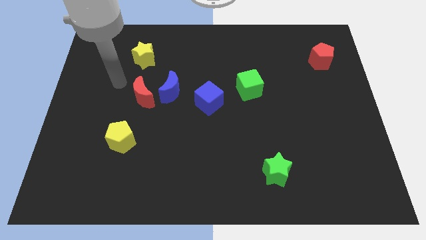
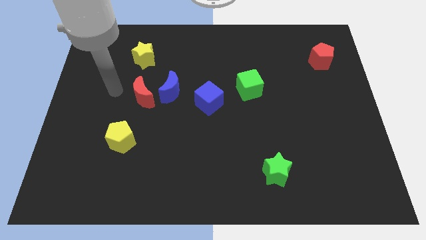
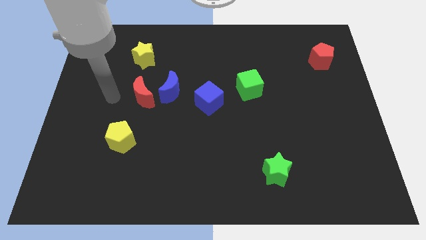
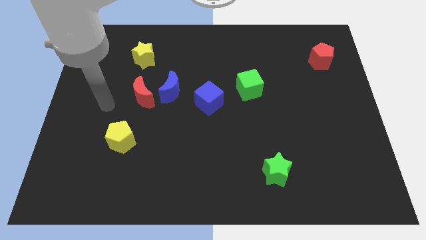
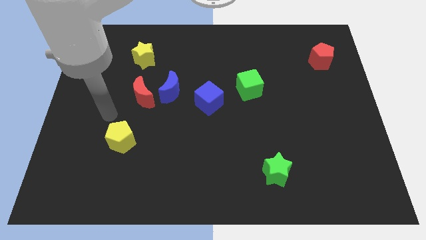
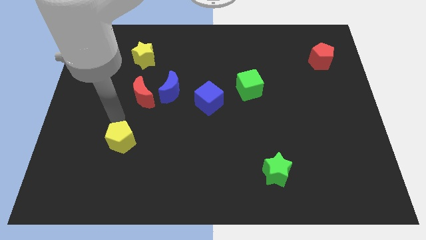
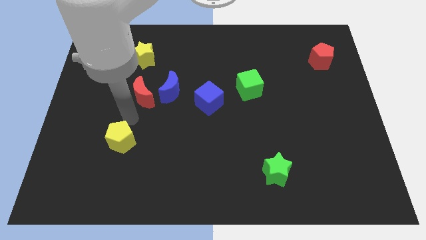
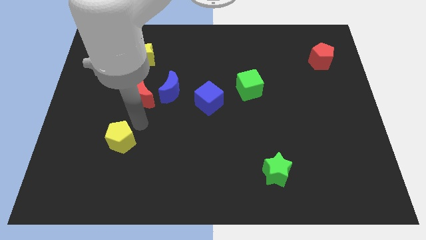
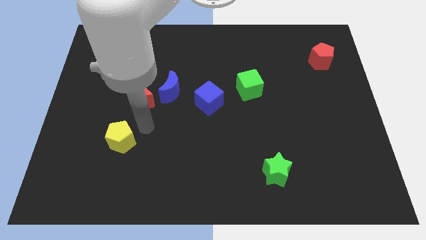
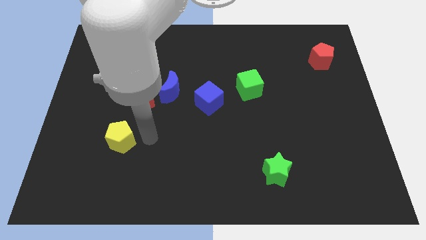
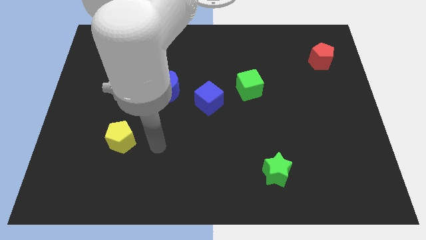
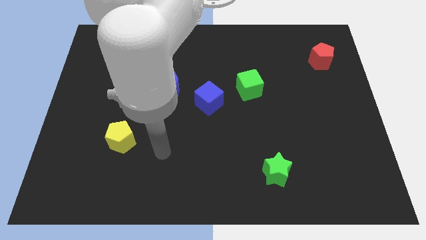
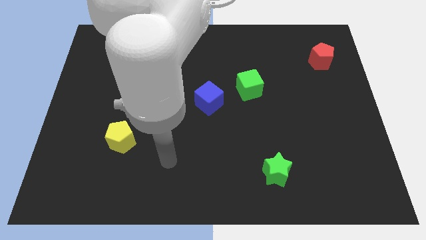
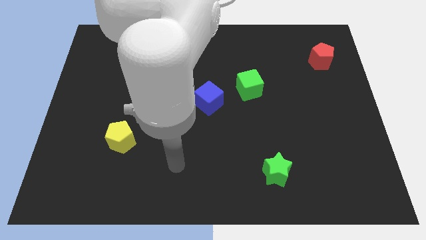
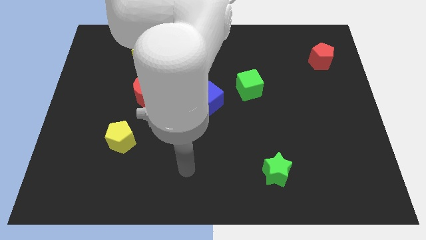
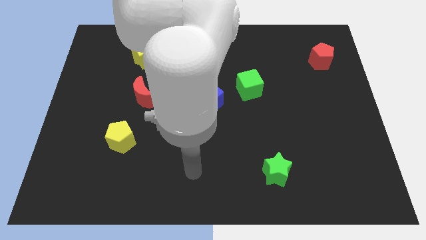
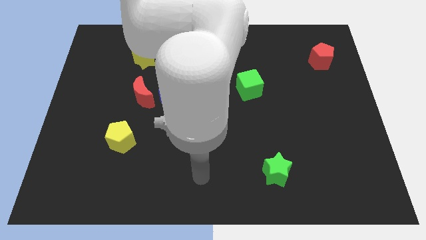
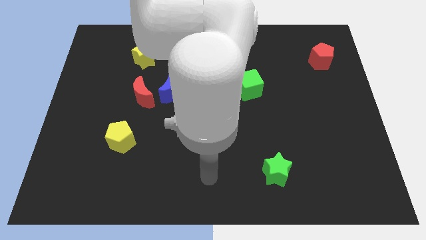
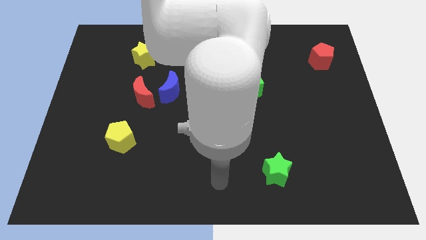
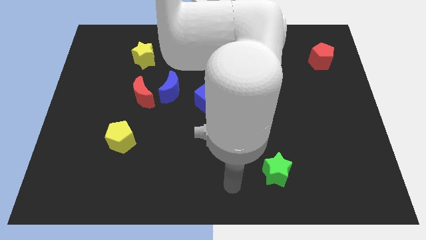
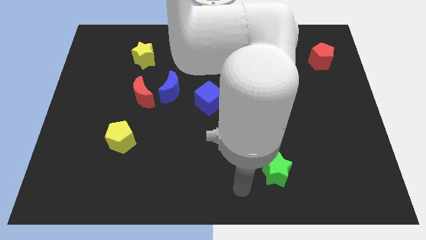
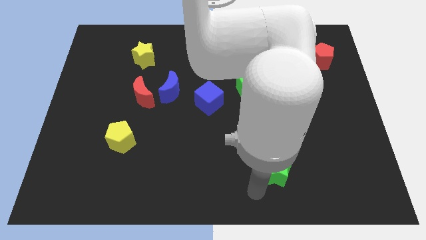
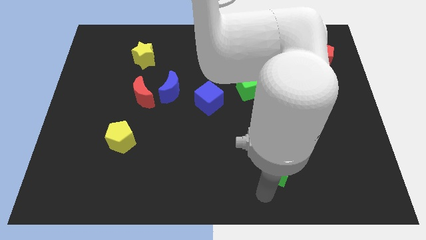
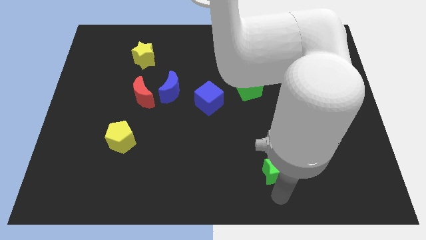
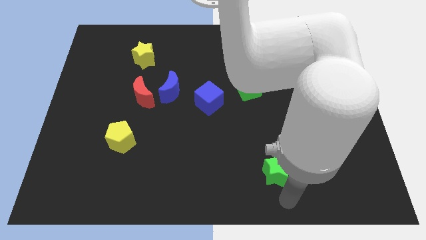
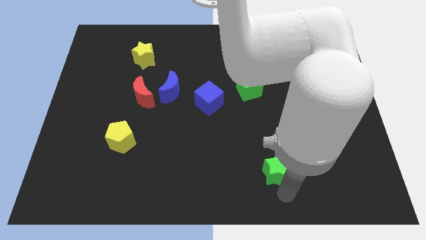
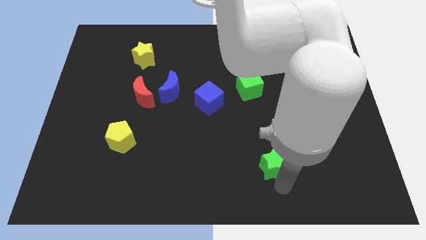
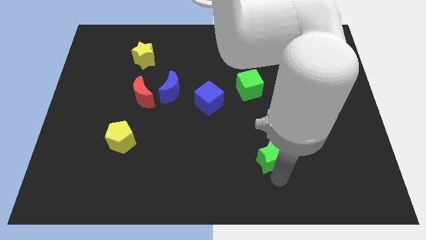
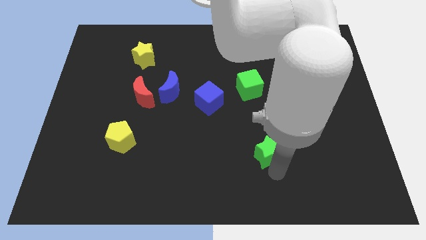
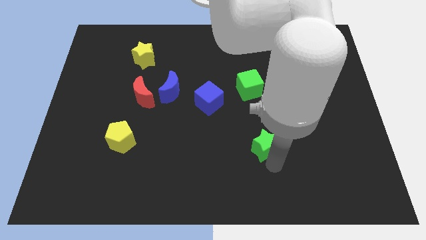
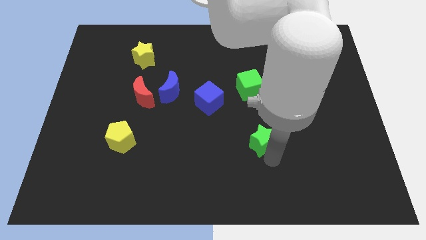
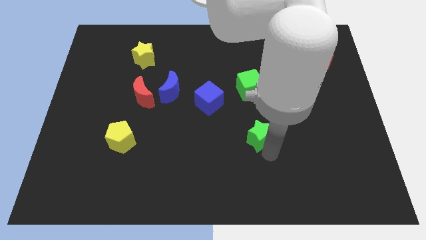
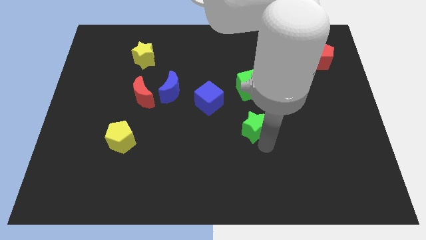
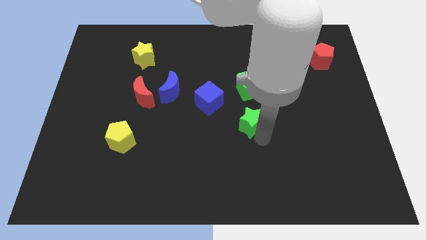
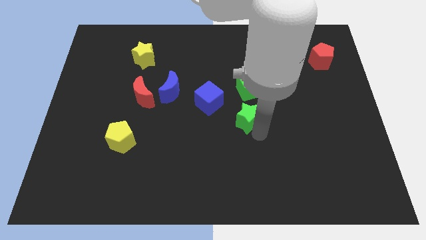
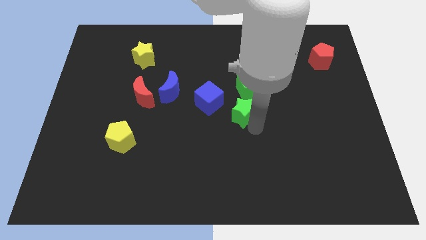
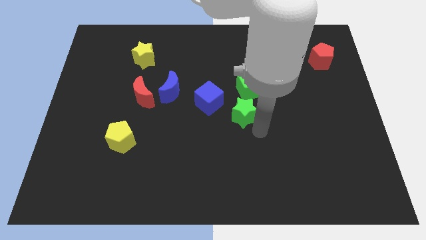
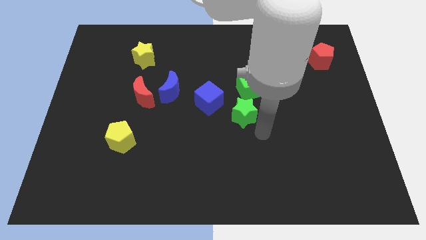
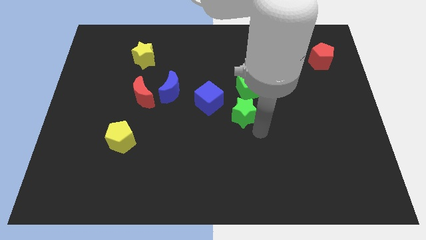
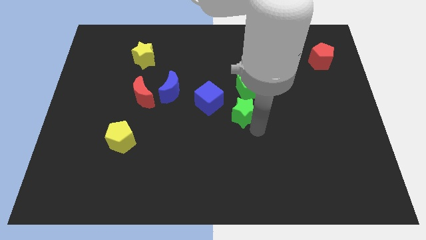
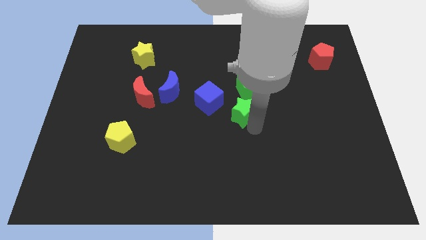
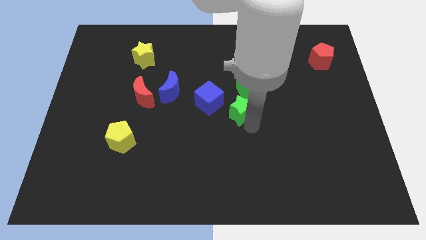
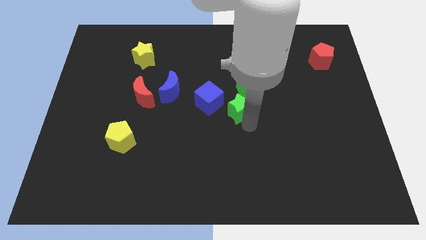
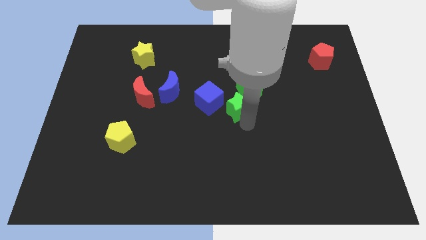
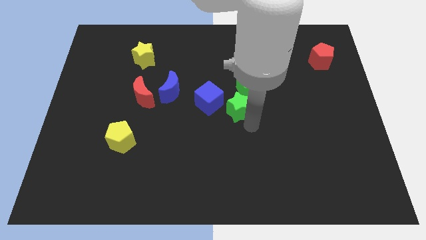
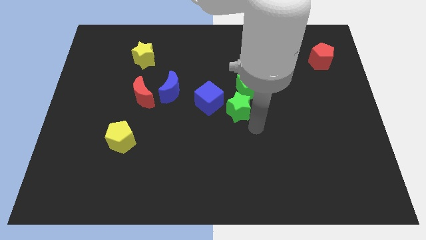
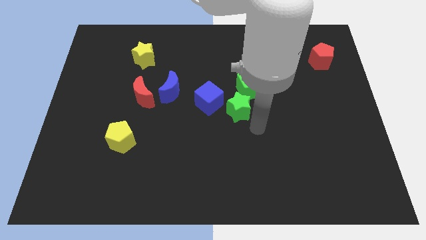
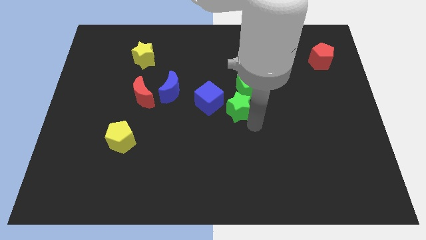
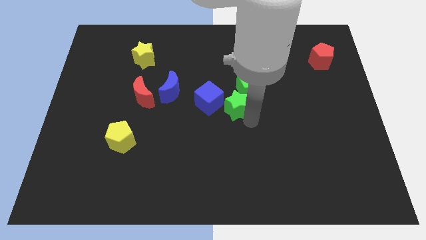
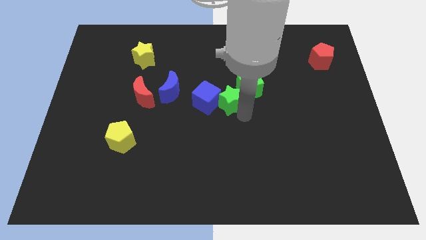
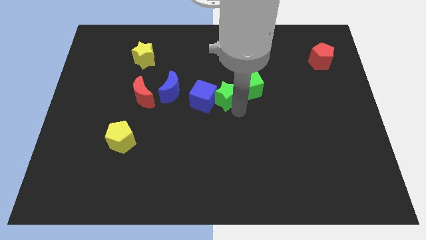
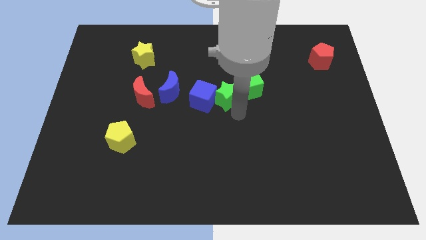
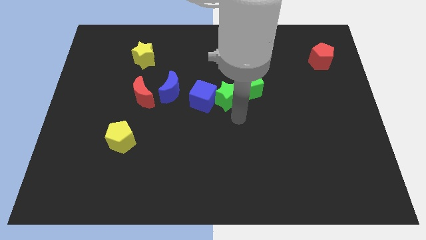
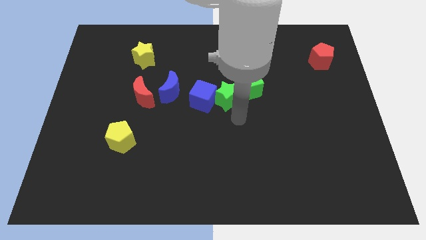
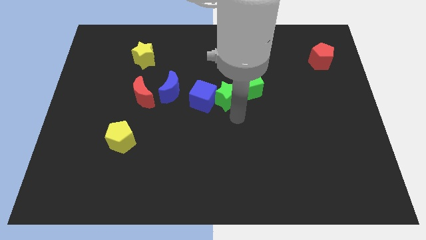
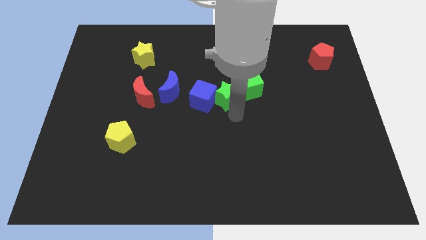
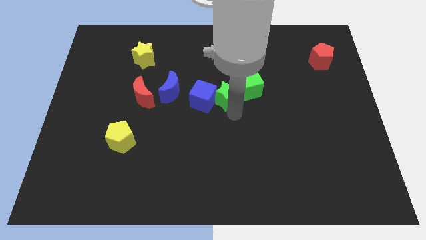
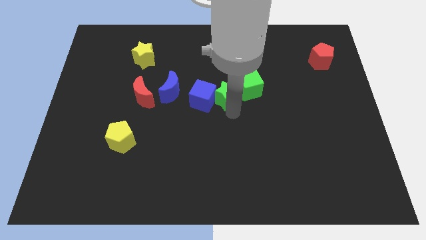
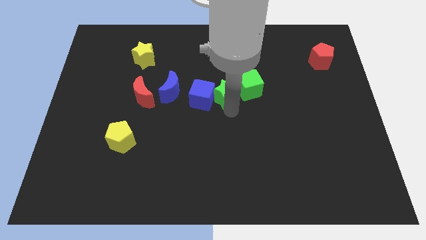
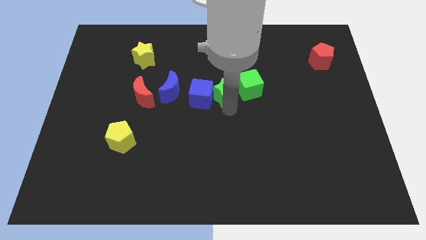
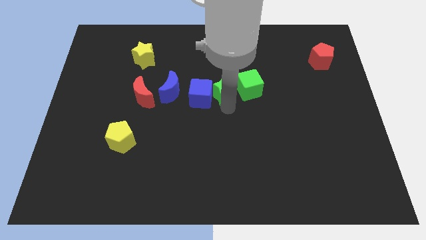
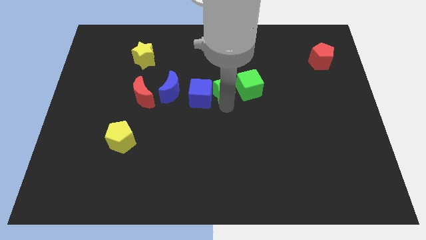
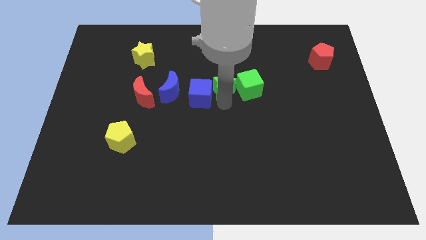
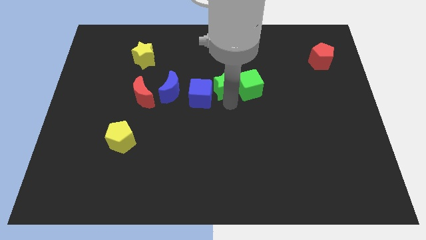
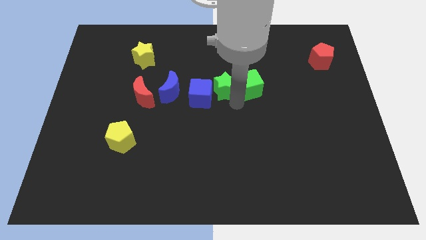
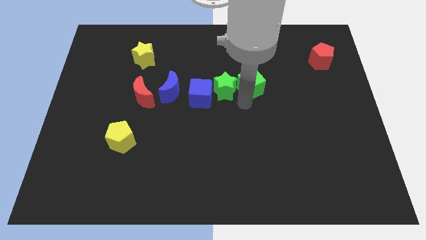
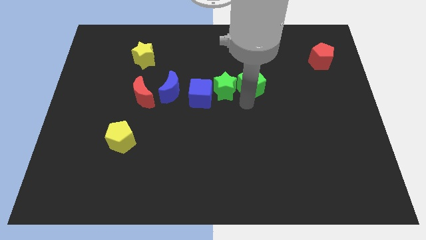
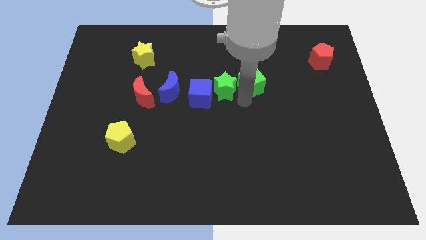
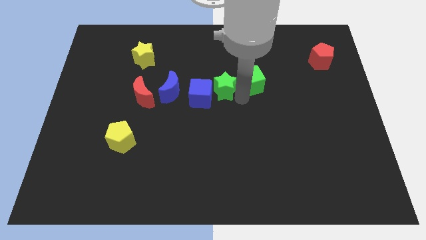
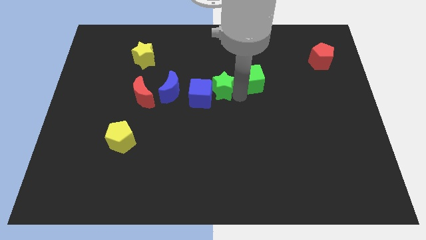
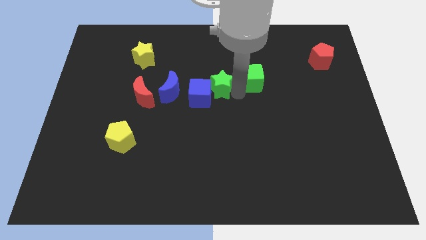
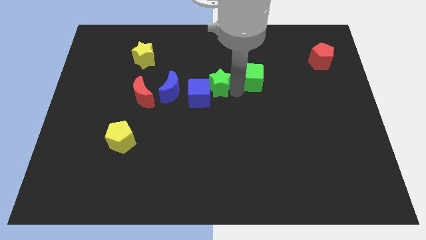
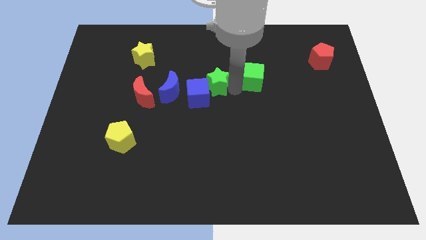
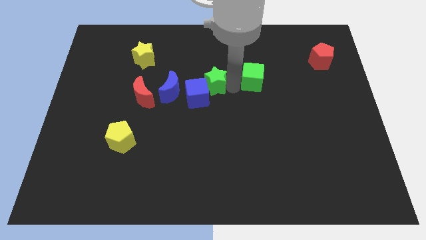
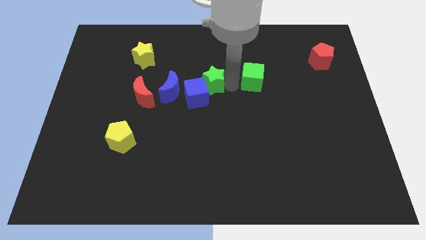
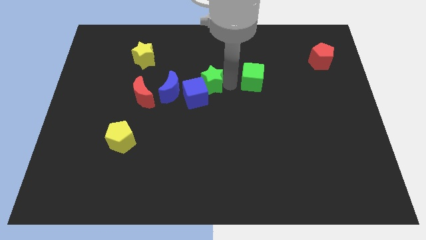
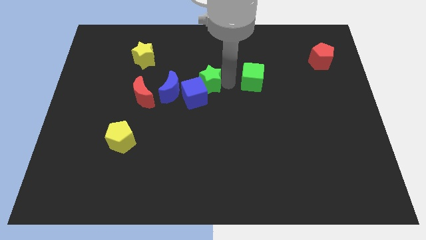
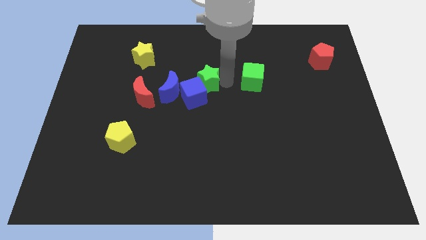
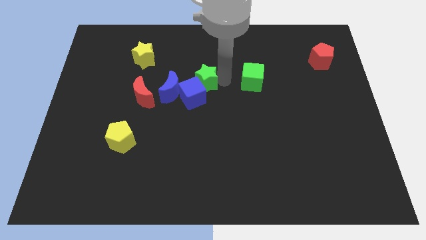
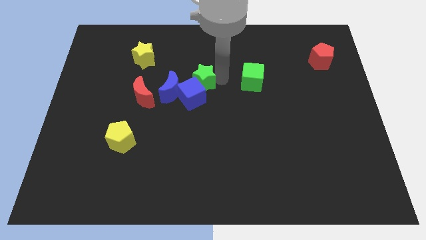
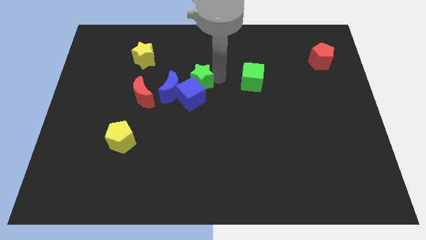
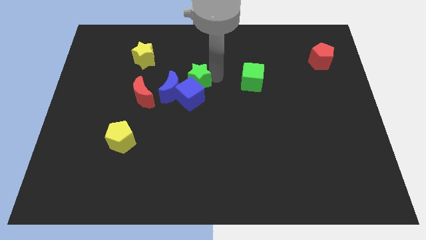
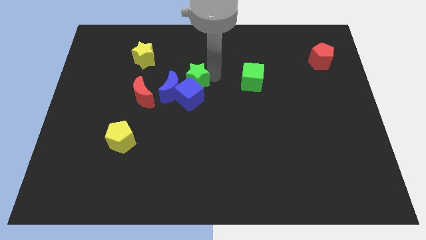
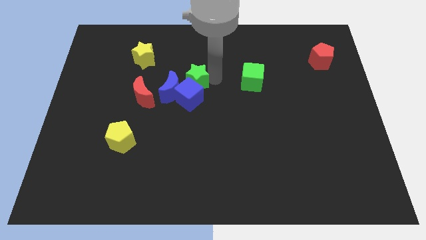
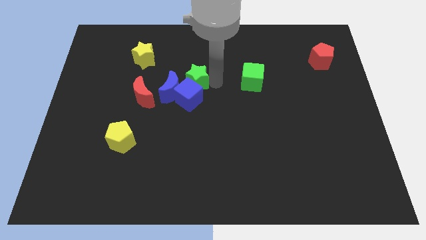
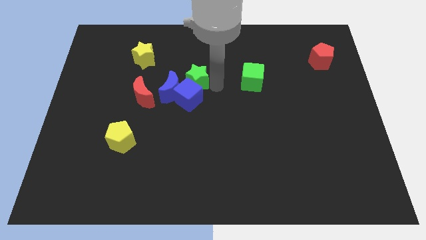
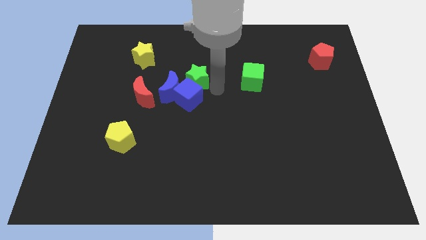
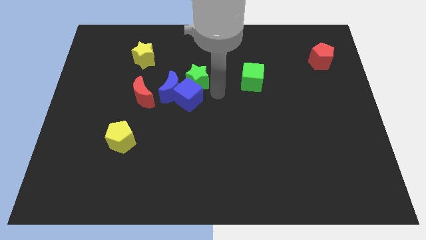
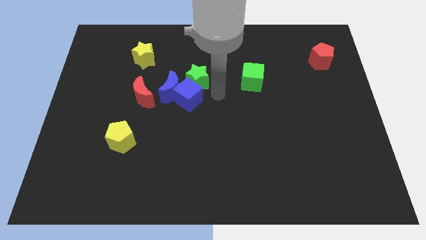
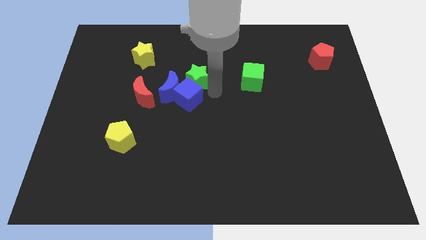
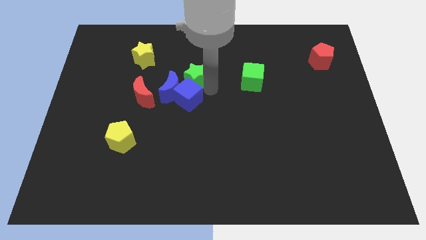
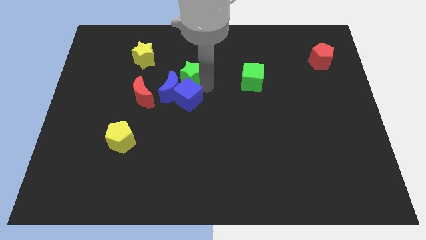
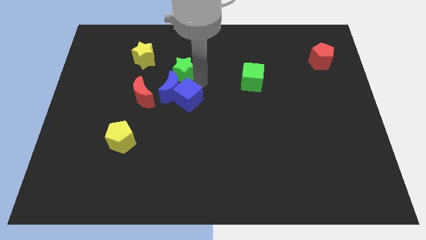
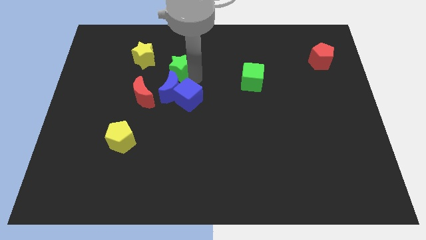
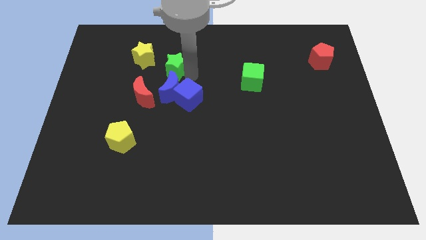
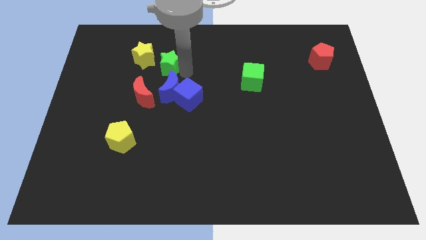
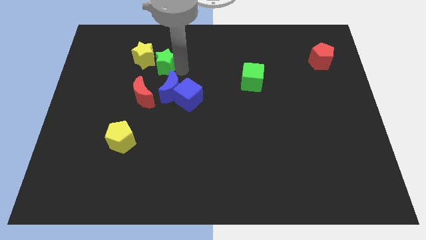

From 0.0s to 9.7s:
push the green star next to the yellow star
